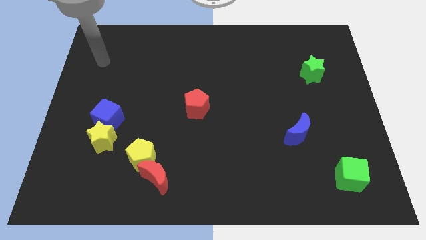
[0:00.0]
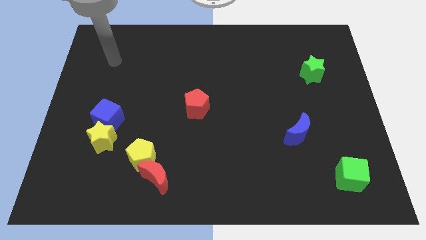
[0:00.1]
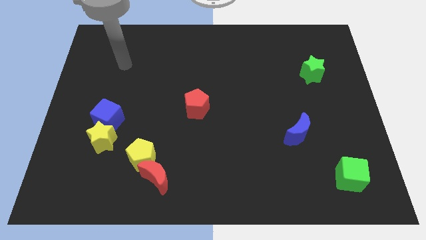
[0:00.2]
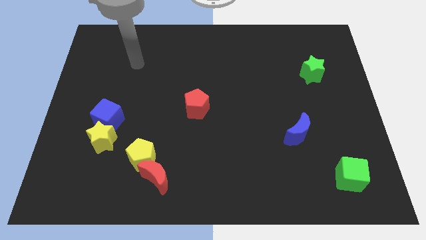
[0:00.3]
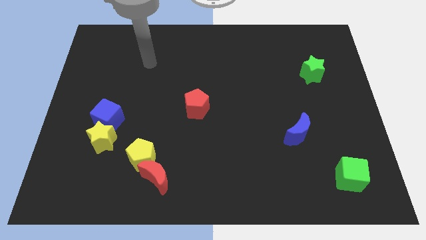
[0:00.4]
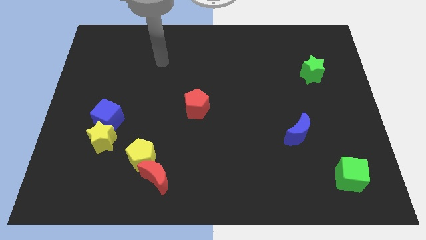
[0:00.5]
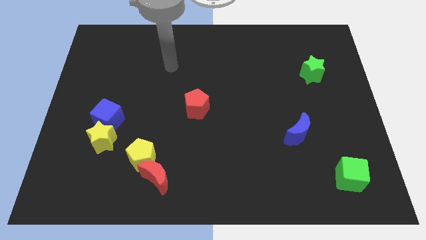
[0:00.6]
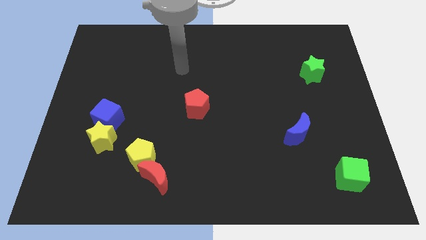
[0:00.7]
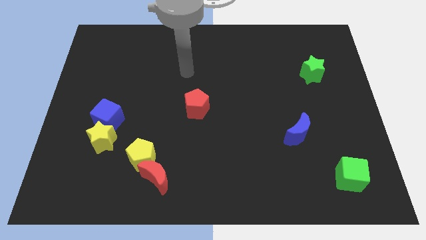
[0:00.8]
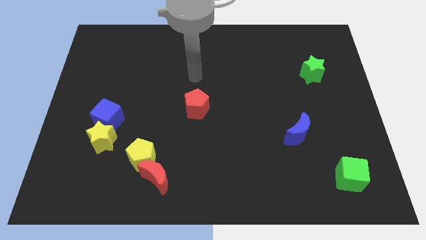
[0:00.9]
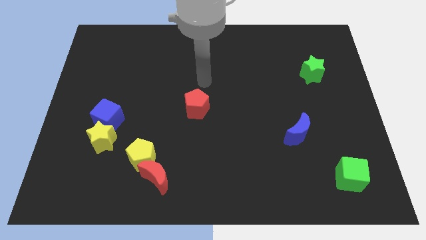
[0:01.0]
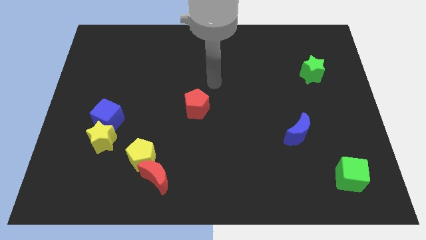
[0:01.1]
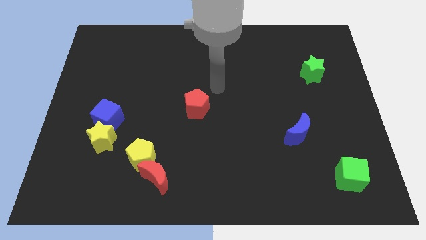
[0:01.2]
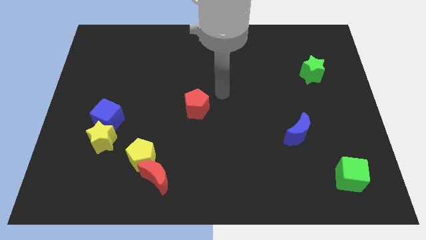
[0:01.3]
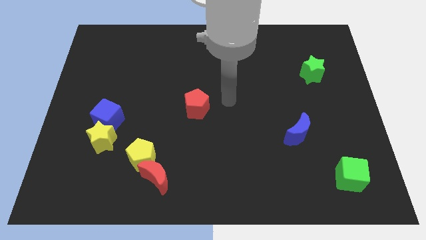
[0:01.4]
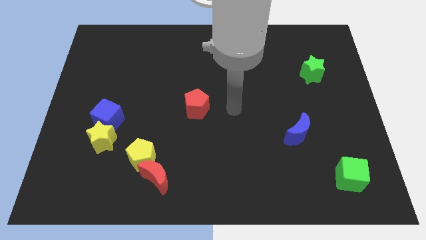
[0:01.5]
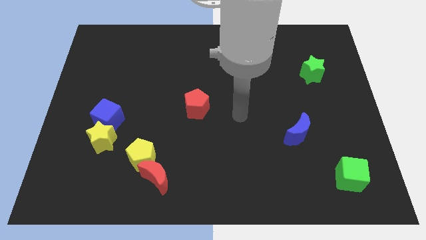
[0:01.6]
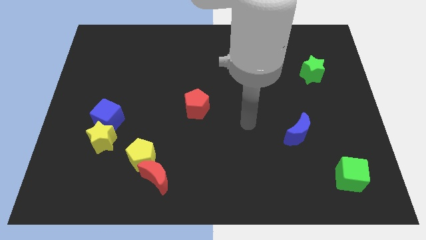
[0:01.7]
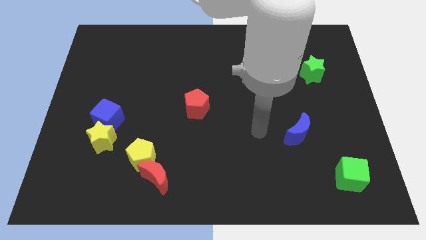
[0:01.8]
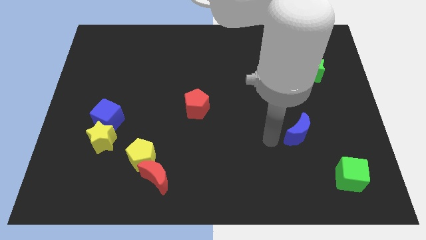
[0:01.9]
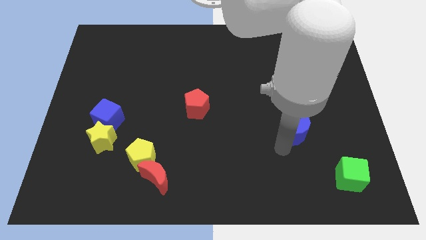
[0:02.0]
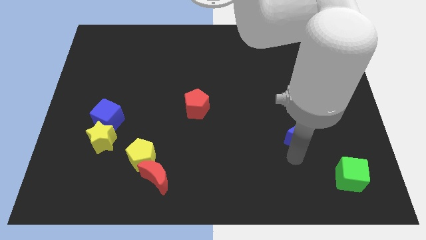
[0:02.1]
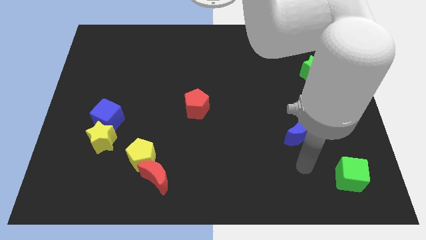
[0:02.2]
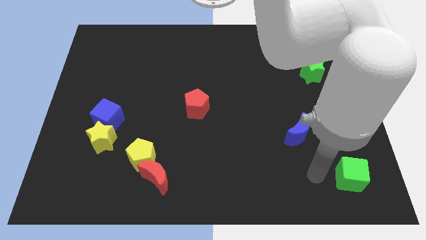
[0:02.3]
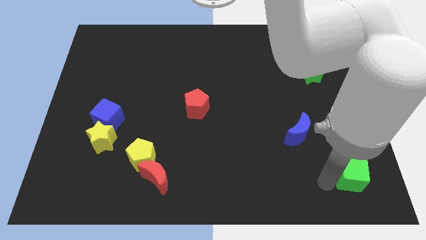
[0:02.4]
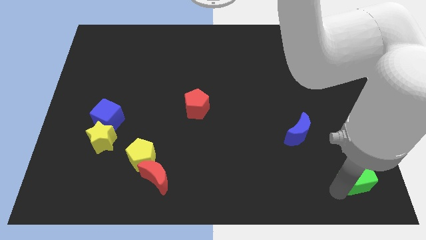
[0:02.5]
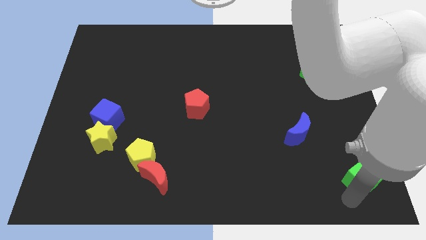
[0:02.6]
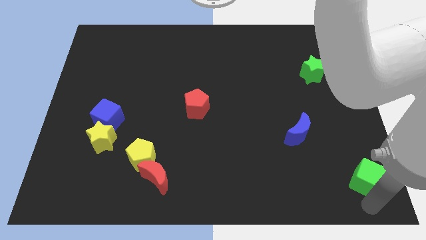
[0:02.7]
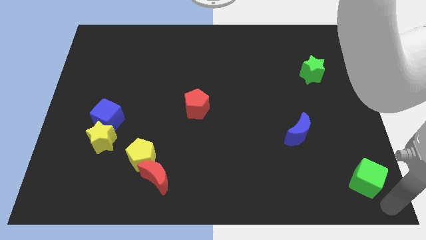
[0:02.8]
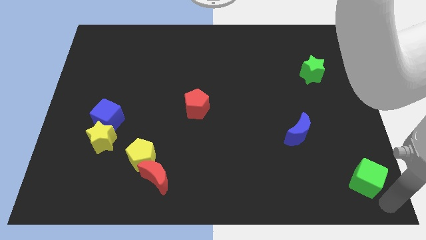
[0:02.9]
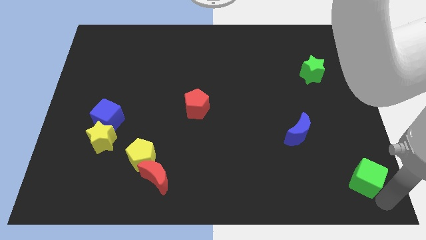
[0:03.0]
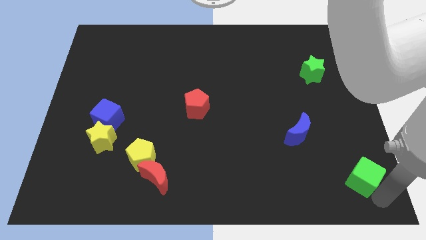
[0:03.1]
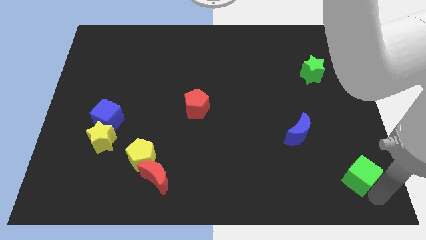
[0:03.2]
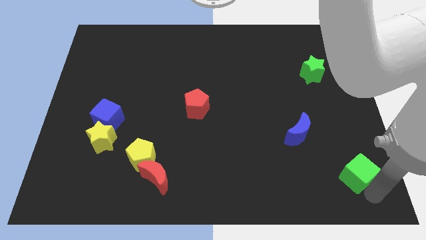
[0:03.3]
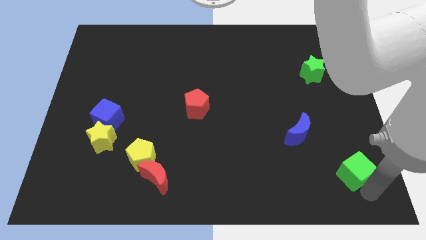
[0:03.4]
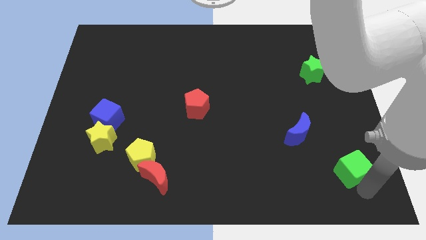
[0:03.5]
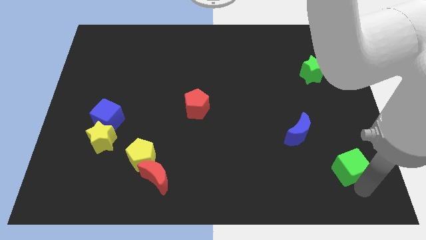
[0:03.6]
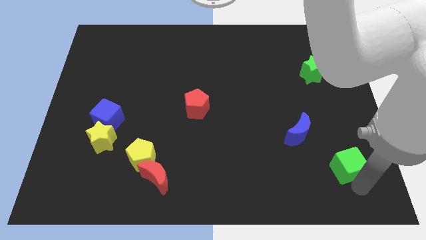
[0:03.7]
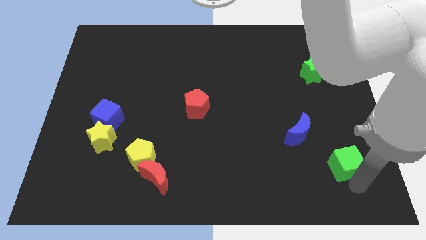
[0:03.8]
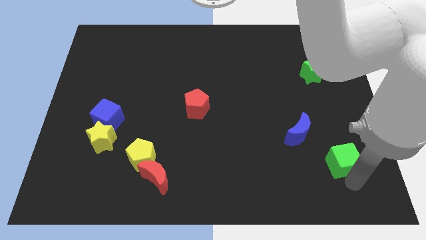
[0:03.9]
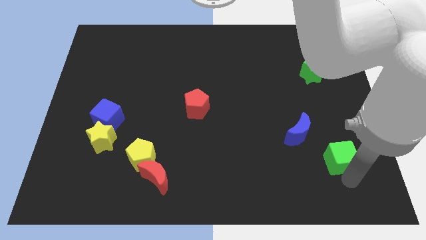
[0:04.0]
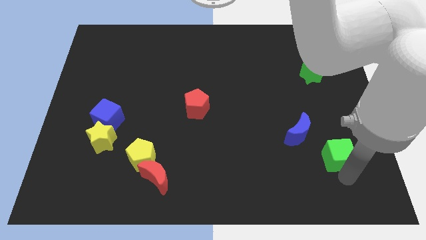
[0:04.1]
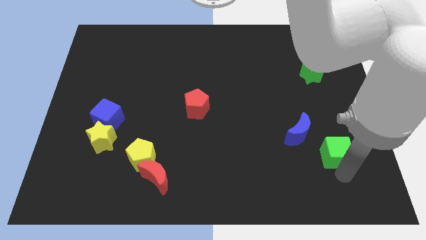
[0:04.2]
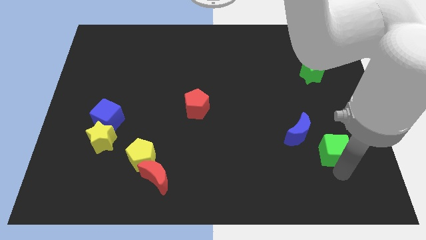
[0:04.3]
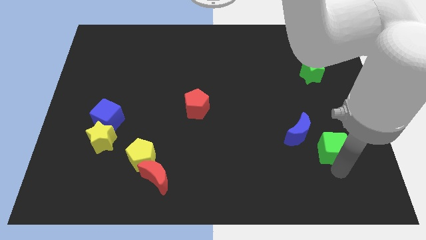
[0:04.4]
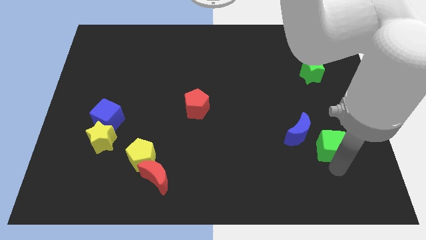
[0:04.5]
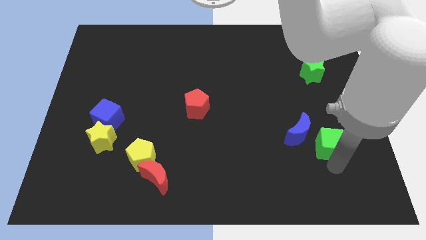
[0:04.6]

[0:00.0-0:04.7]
slightly slide the green cube up

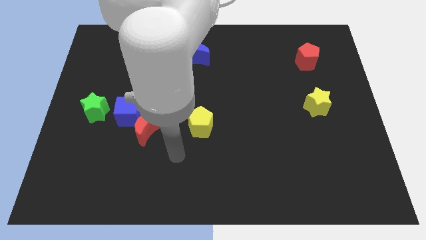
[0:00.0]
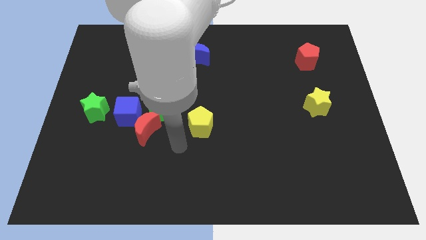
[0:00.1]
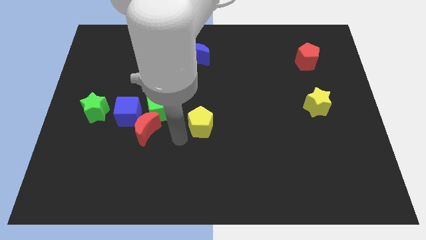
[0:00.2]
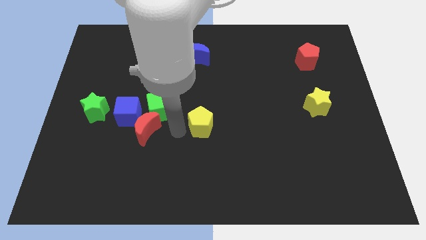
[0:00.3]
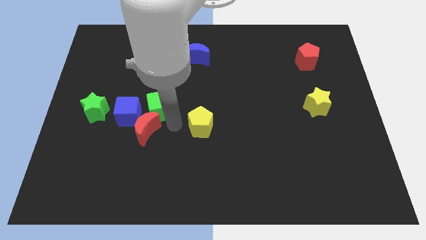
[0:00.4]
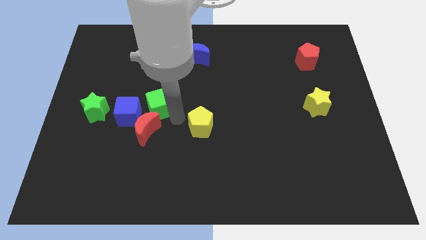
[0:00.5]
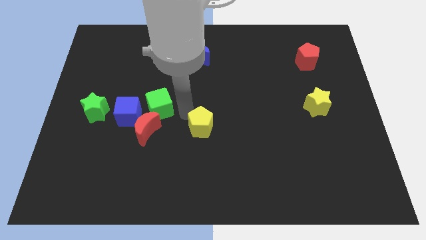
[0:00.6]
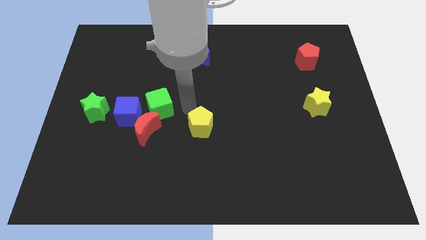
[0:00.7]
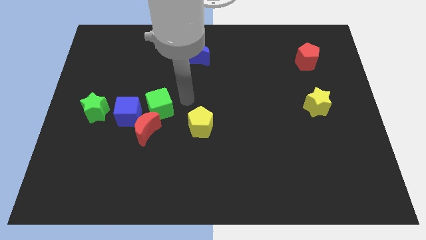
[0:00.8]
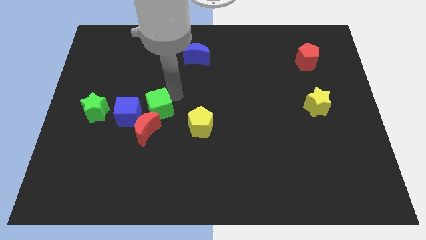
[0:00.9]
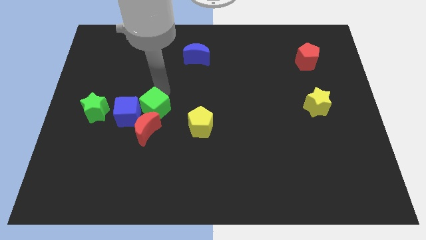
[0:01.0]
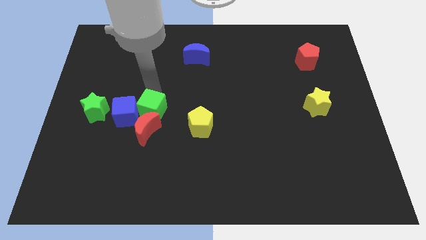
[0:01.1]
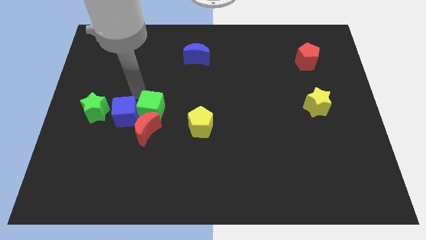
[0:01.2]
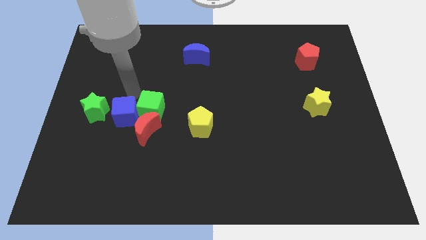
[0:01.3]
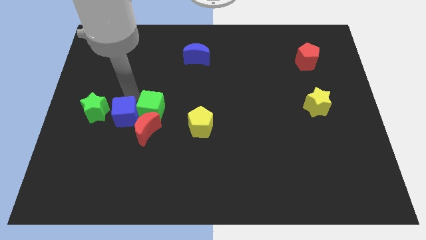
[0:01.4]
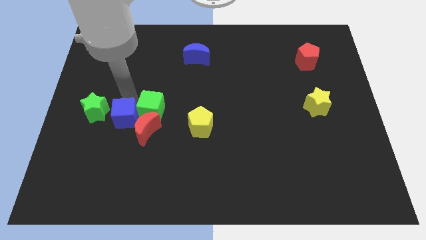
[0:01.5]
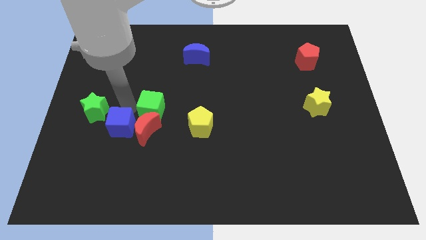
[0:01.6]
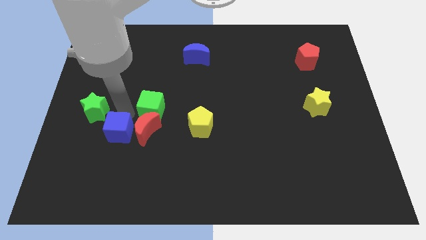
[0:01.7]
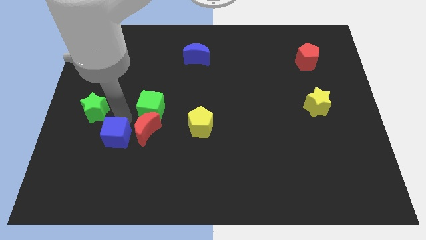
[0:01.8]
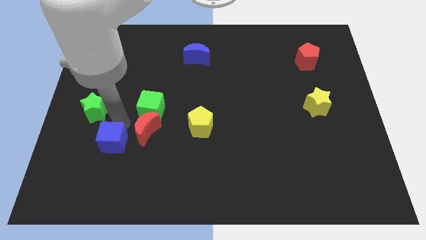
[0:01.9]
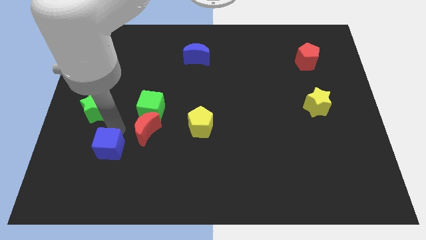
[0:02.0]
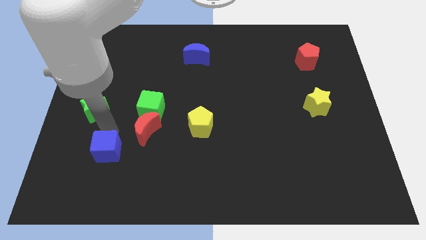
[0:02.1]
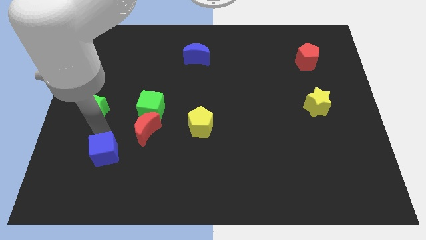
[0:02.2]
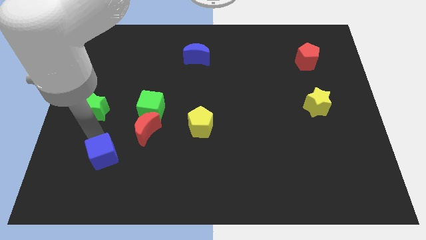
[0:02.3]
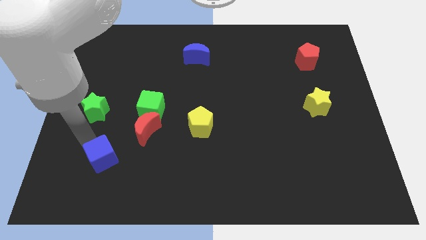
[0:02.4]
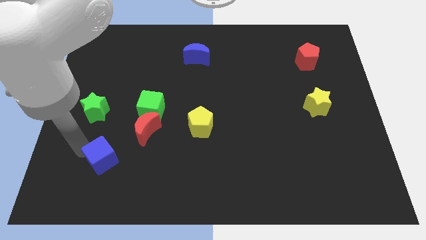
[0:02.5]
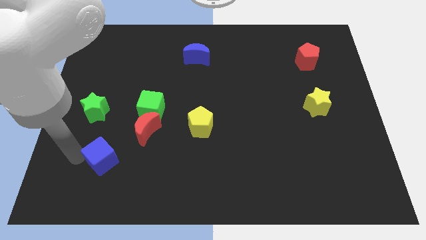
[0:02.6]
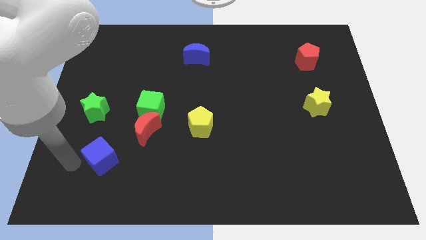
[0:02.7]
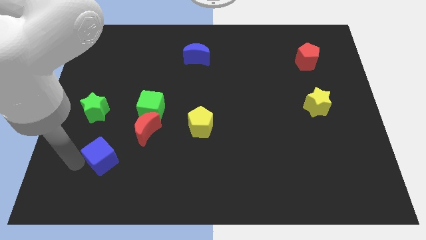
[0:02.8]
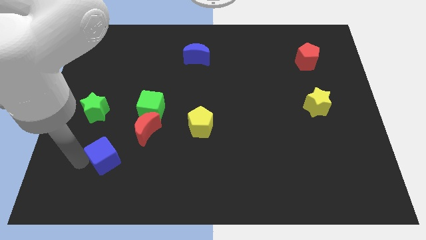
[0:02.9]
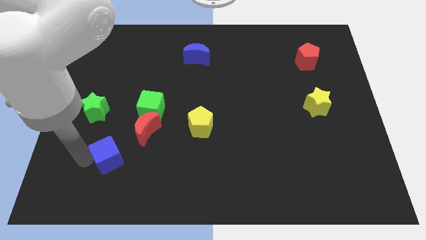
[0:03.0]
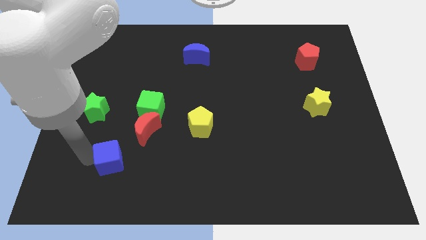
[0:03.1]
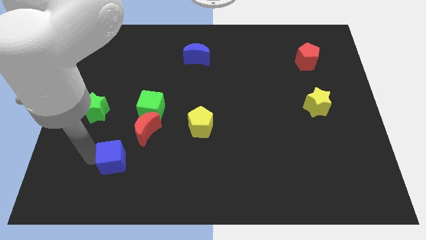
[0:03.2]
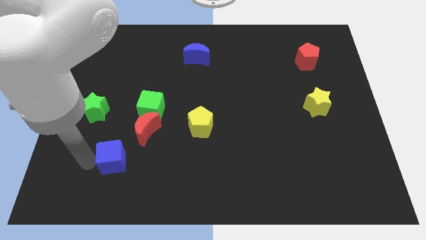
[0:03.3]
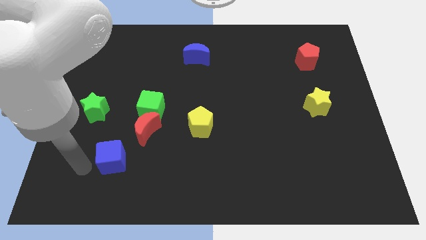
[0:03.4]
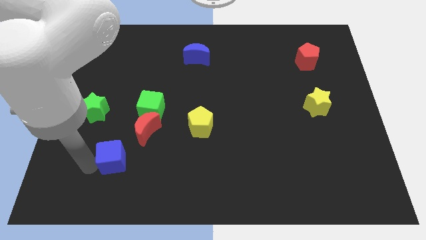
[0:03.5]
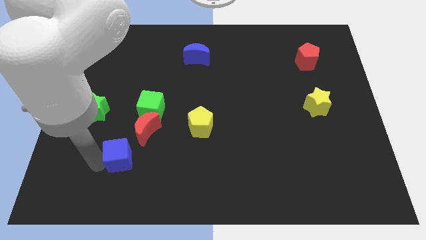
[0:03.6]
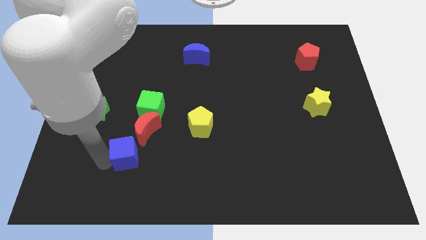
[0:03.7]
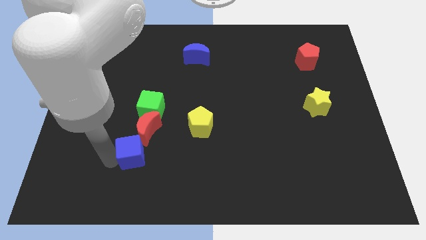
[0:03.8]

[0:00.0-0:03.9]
slightly move the blue cube down and right diagonally
